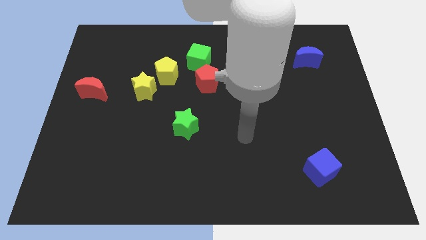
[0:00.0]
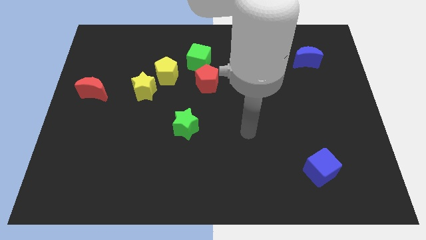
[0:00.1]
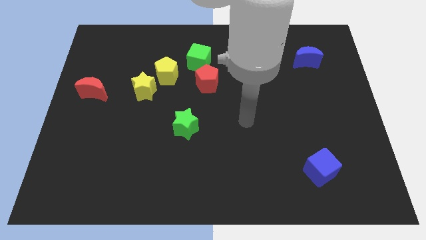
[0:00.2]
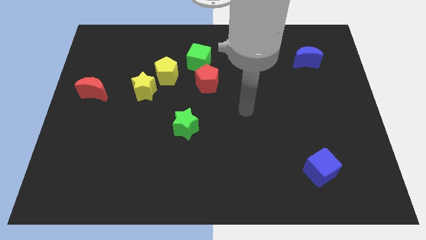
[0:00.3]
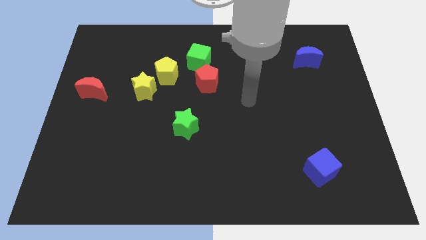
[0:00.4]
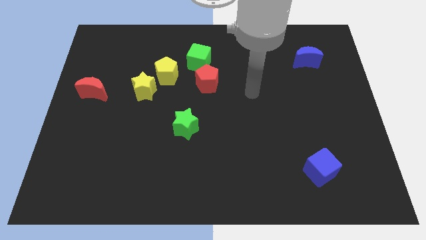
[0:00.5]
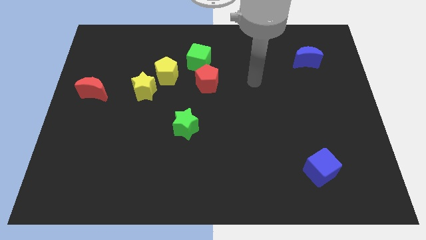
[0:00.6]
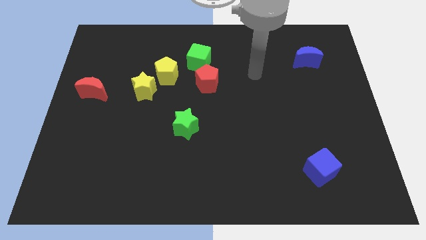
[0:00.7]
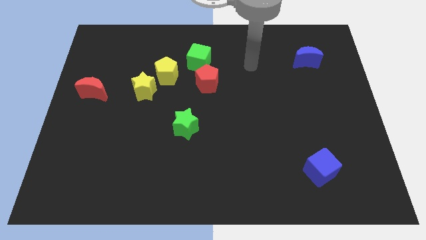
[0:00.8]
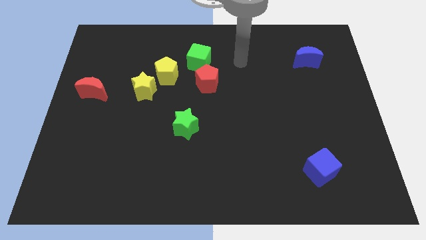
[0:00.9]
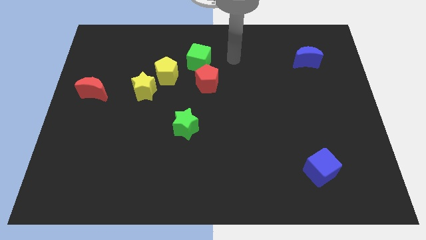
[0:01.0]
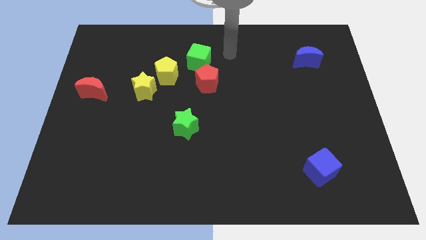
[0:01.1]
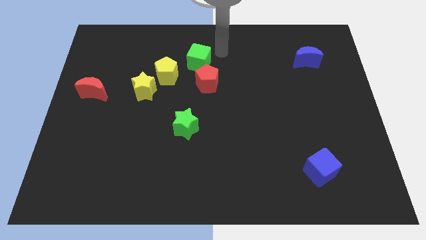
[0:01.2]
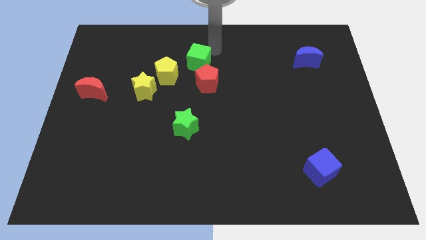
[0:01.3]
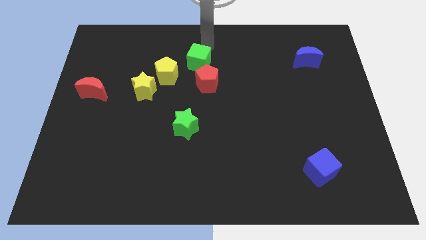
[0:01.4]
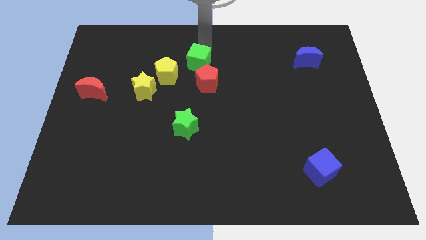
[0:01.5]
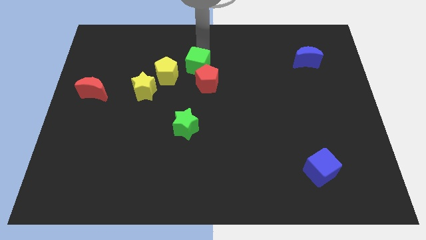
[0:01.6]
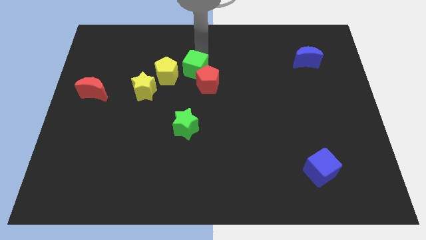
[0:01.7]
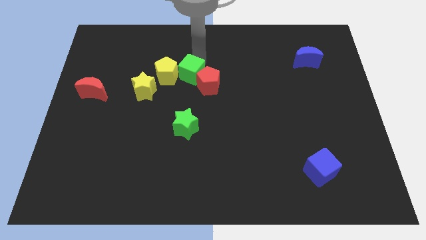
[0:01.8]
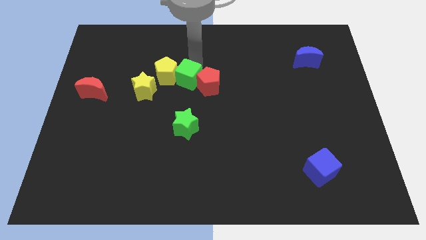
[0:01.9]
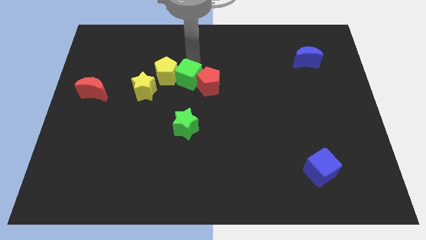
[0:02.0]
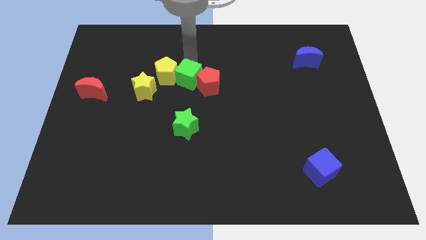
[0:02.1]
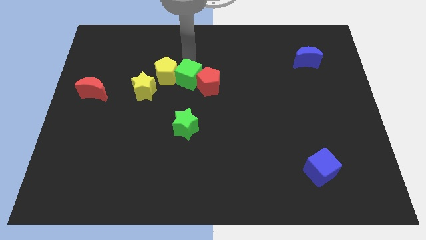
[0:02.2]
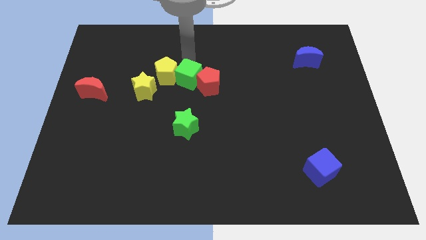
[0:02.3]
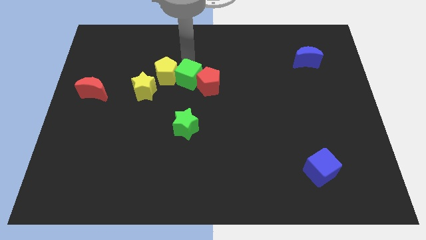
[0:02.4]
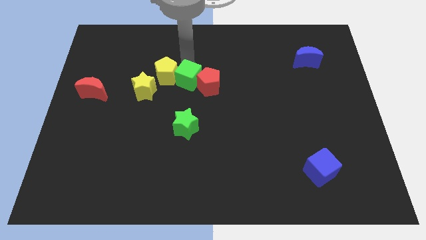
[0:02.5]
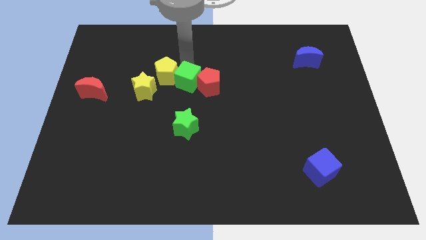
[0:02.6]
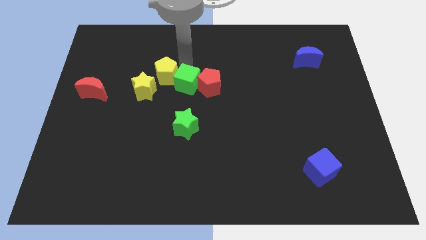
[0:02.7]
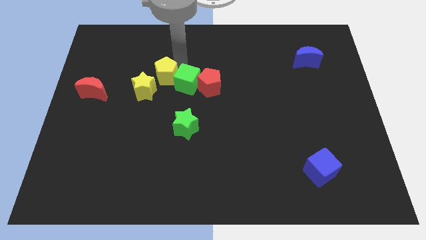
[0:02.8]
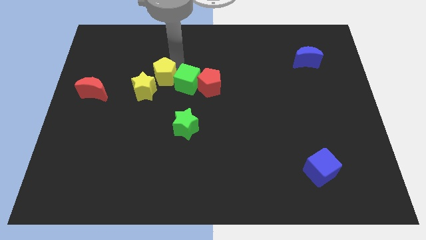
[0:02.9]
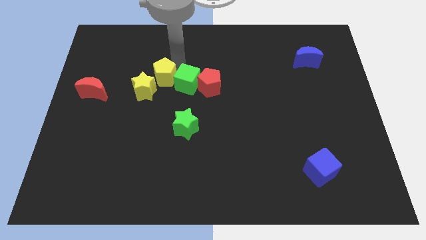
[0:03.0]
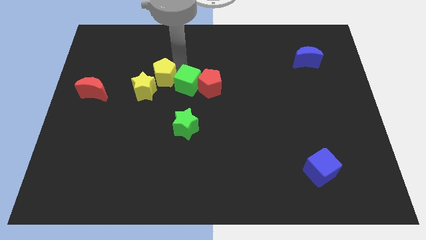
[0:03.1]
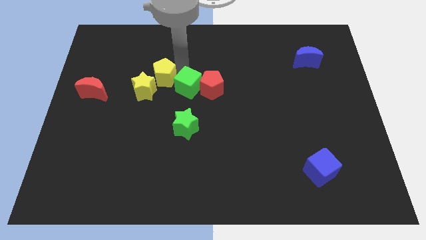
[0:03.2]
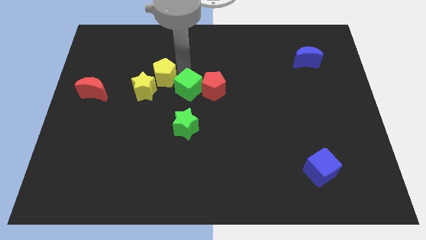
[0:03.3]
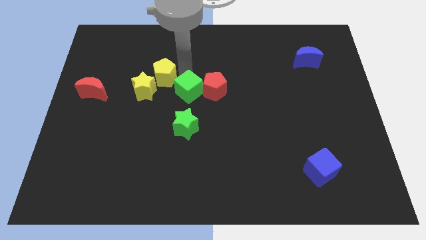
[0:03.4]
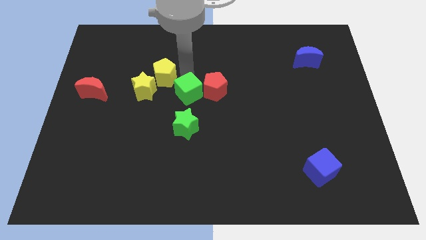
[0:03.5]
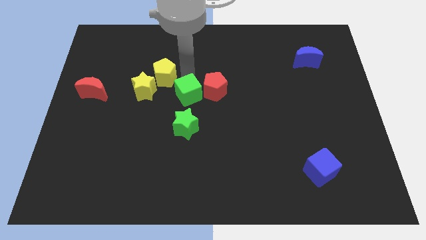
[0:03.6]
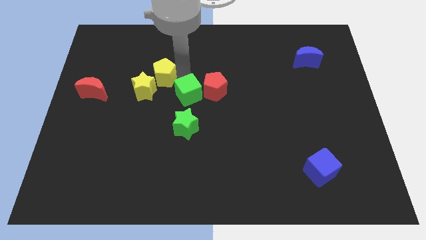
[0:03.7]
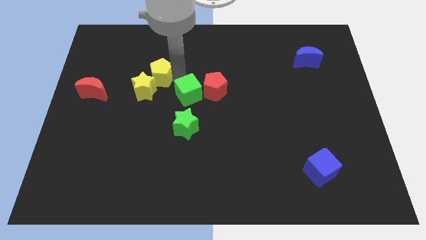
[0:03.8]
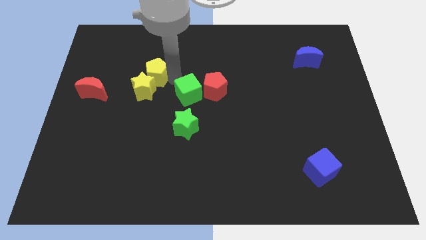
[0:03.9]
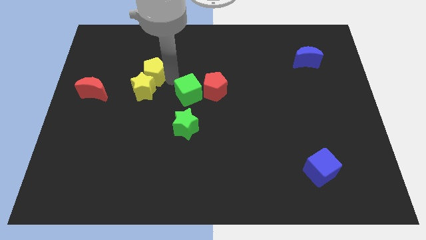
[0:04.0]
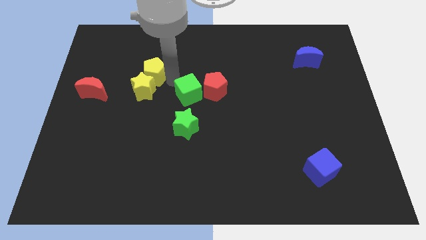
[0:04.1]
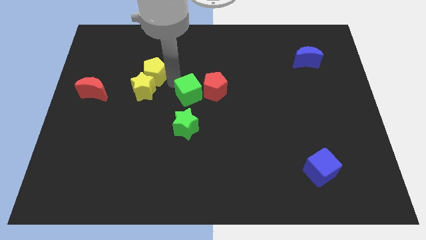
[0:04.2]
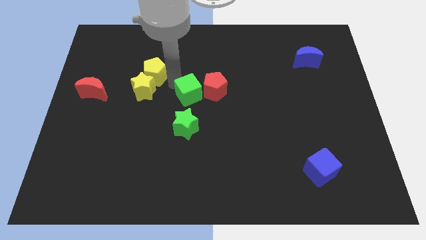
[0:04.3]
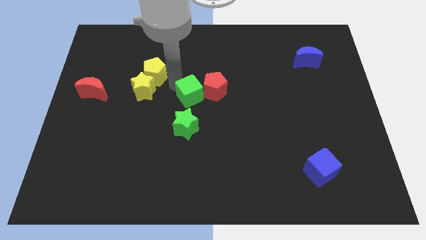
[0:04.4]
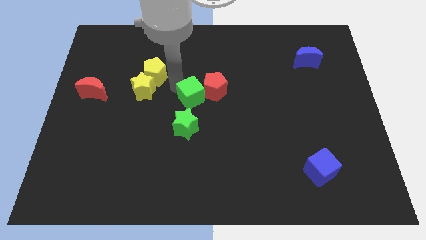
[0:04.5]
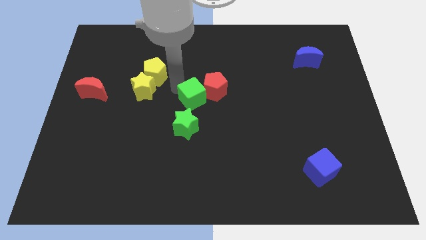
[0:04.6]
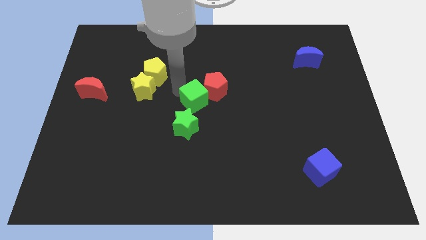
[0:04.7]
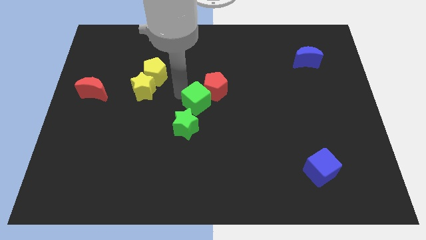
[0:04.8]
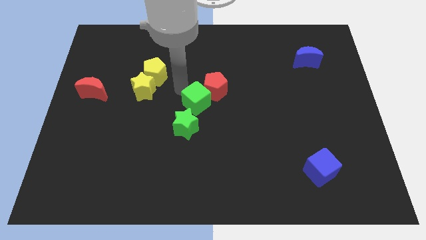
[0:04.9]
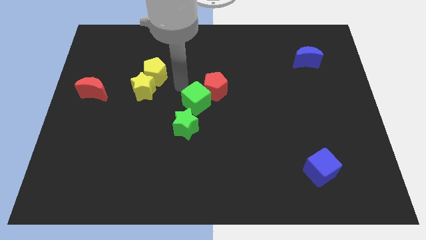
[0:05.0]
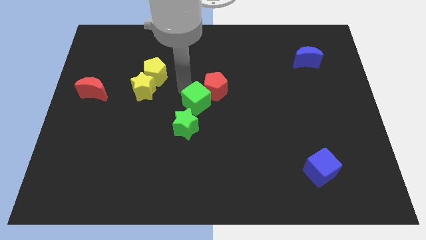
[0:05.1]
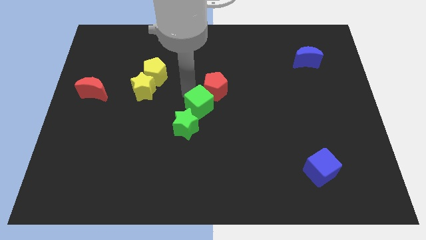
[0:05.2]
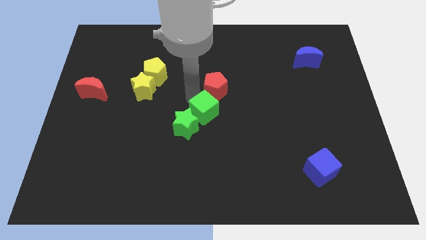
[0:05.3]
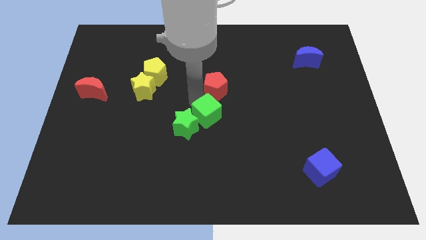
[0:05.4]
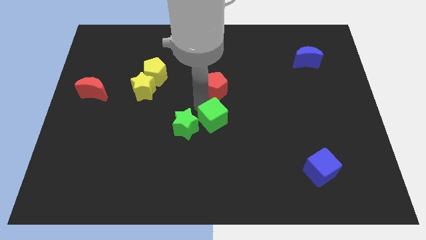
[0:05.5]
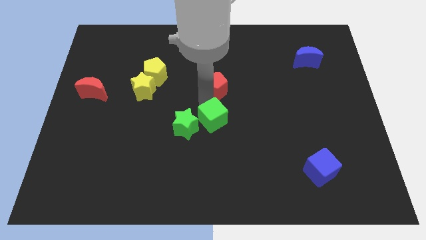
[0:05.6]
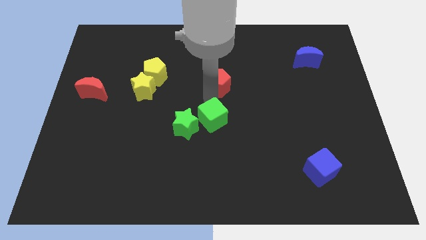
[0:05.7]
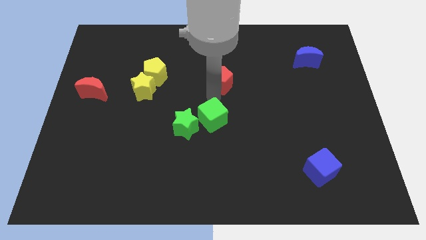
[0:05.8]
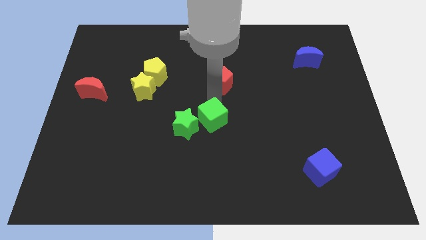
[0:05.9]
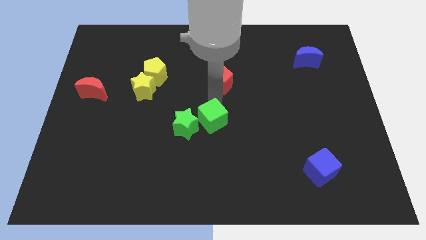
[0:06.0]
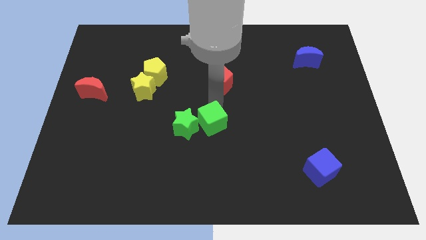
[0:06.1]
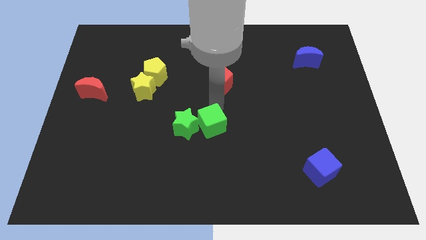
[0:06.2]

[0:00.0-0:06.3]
slide the green cube downwards

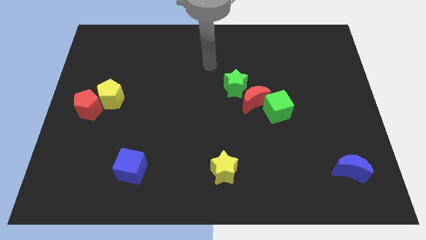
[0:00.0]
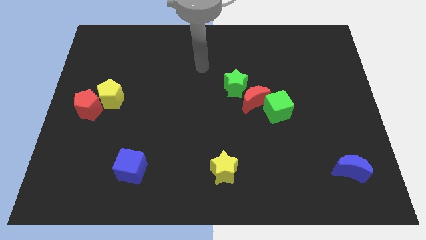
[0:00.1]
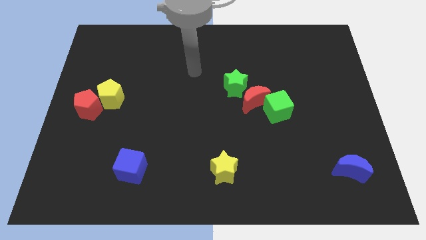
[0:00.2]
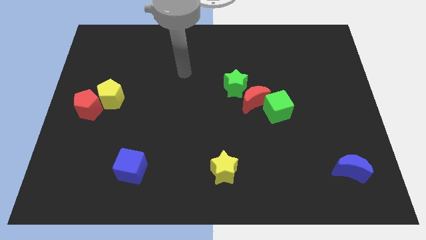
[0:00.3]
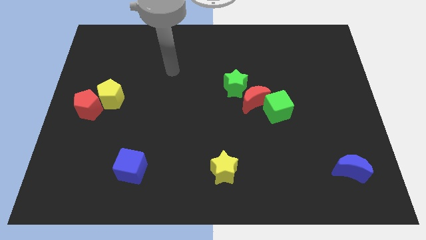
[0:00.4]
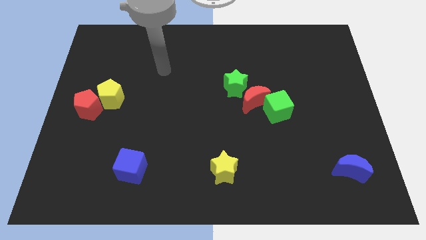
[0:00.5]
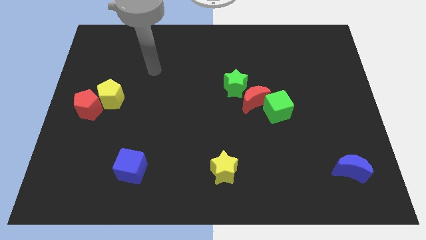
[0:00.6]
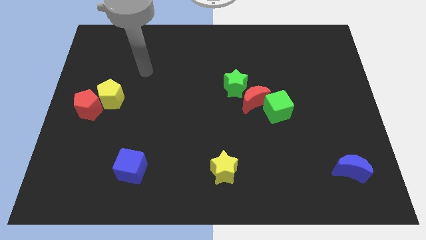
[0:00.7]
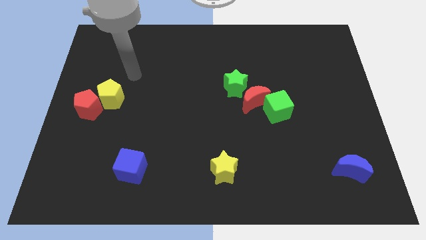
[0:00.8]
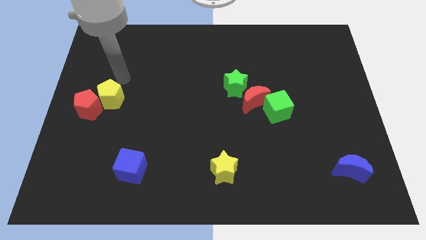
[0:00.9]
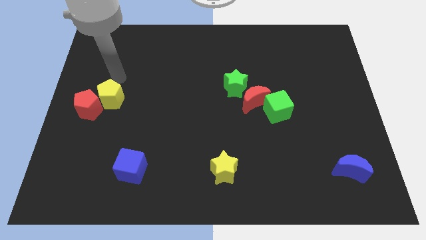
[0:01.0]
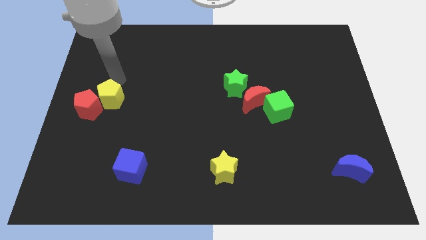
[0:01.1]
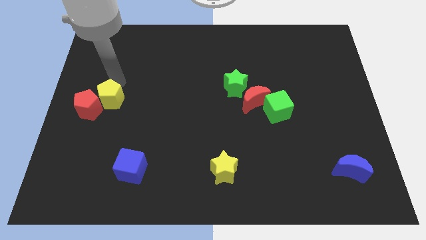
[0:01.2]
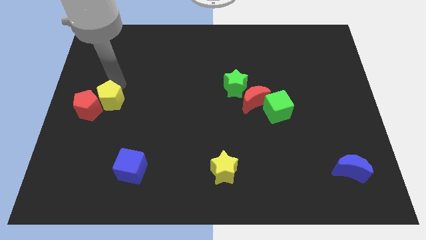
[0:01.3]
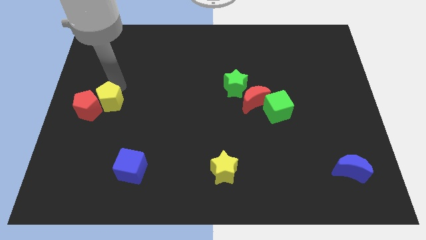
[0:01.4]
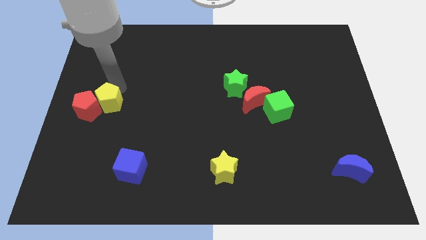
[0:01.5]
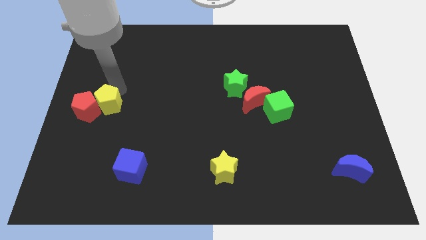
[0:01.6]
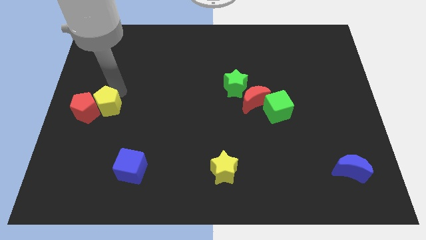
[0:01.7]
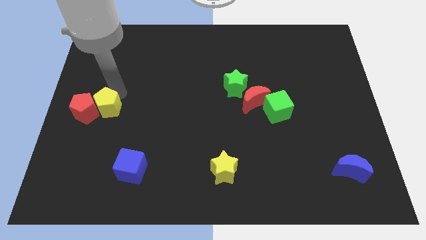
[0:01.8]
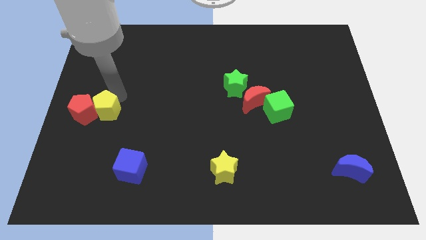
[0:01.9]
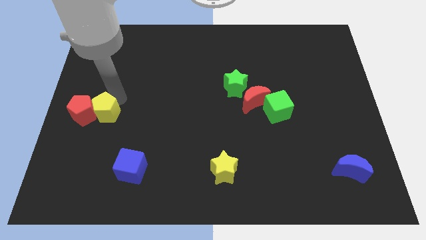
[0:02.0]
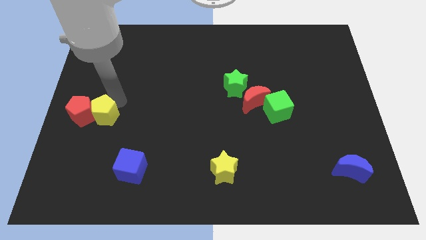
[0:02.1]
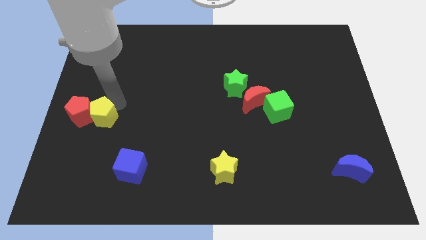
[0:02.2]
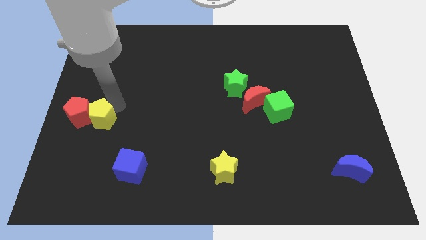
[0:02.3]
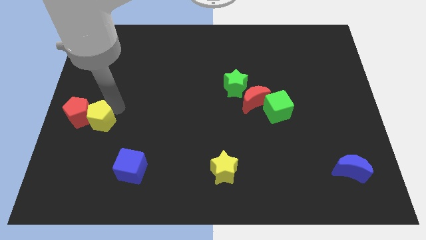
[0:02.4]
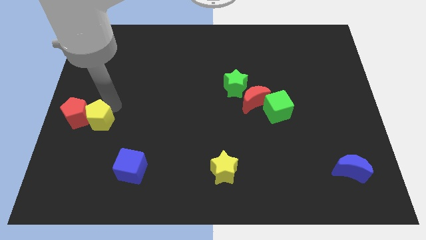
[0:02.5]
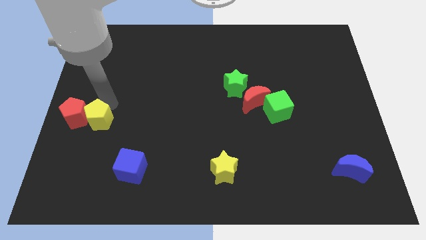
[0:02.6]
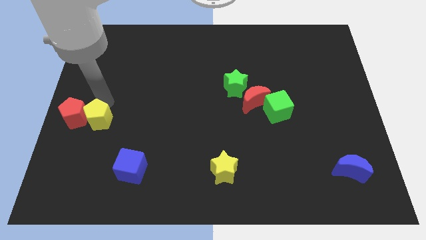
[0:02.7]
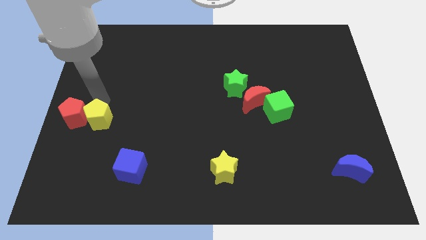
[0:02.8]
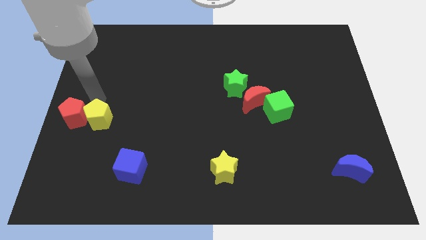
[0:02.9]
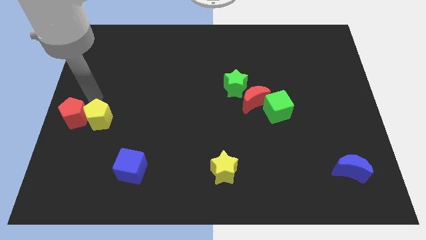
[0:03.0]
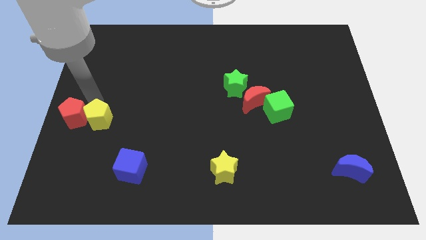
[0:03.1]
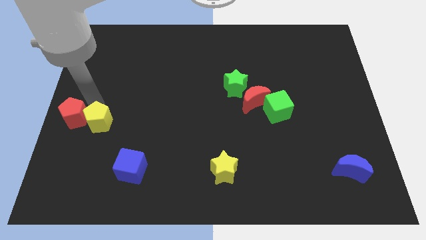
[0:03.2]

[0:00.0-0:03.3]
slide the yellow pentagon down a bit
